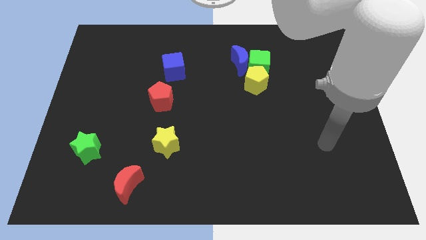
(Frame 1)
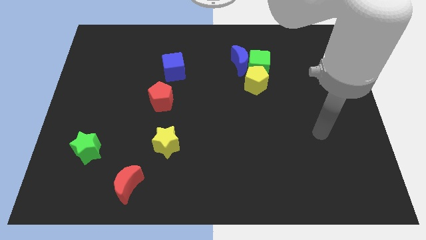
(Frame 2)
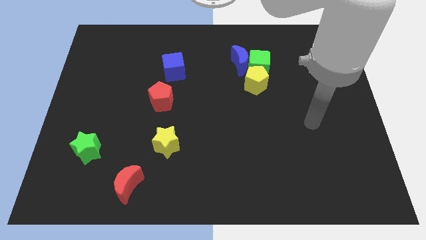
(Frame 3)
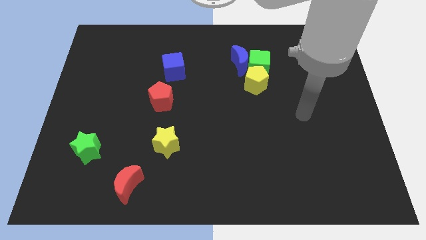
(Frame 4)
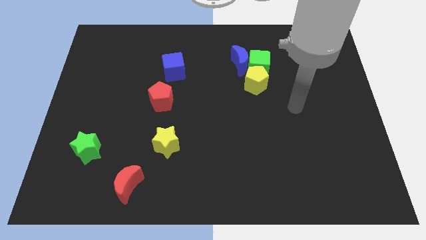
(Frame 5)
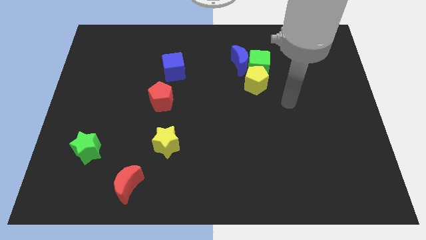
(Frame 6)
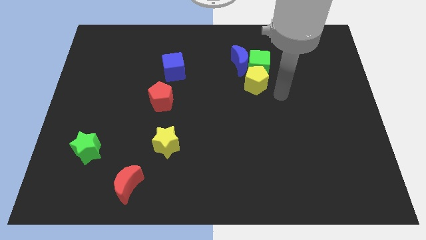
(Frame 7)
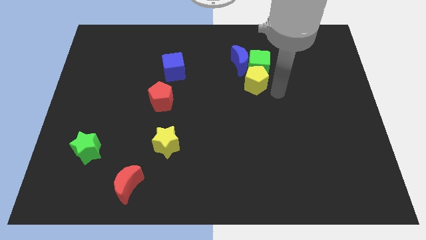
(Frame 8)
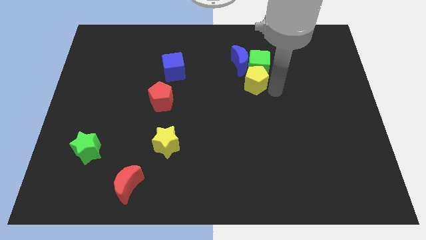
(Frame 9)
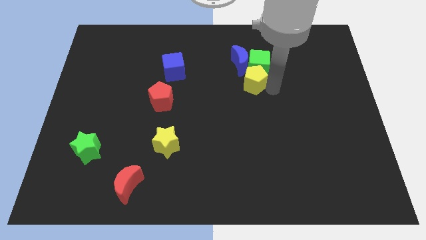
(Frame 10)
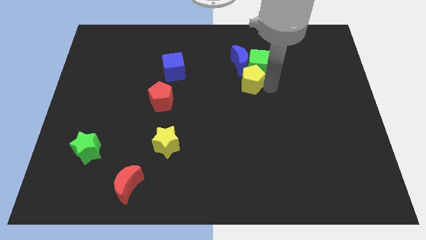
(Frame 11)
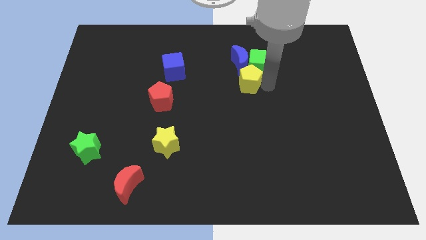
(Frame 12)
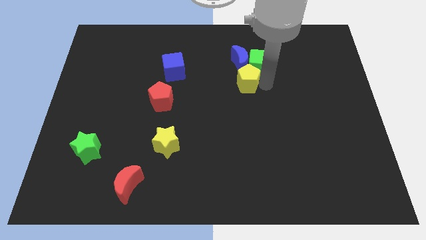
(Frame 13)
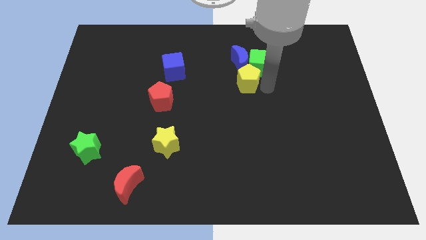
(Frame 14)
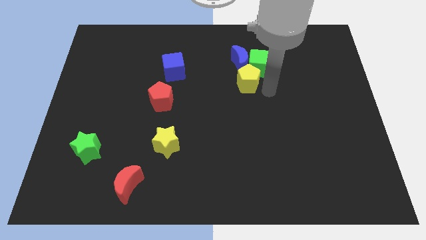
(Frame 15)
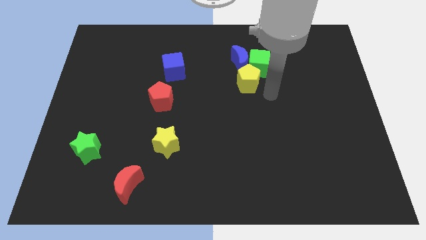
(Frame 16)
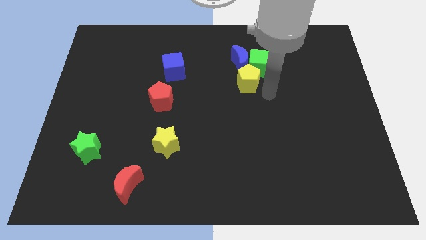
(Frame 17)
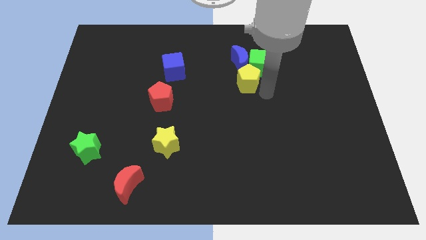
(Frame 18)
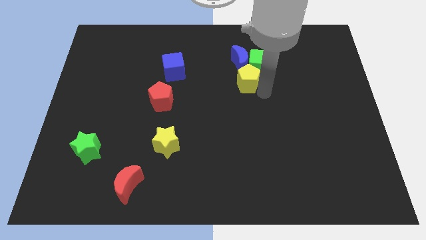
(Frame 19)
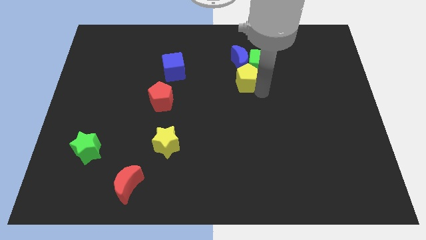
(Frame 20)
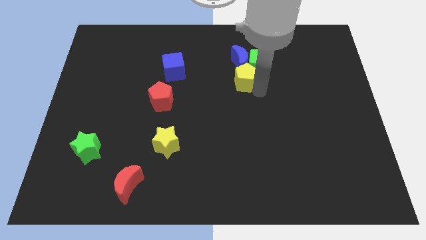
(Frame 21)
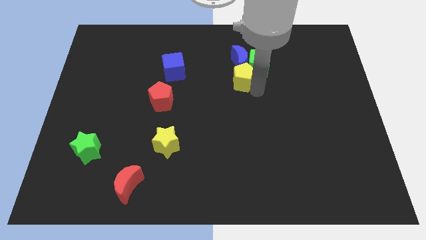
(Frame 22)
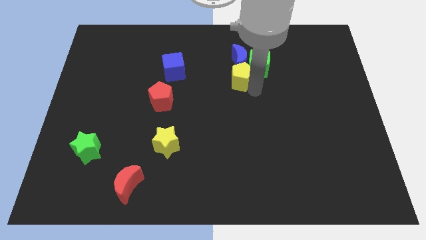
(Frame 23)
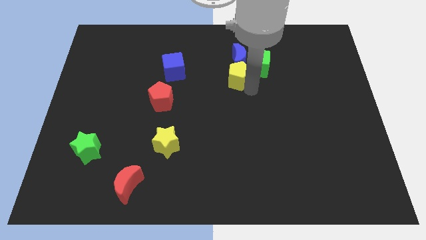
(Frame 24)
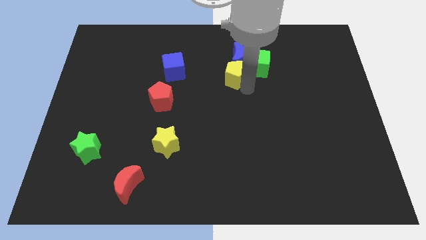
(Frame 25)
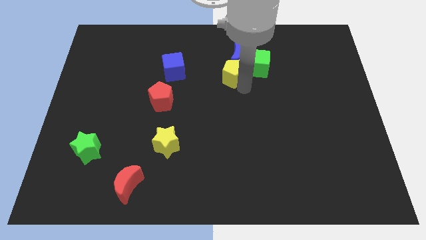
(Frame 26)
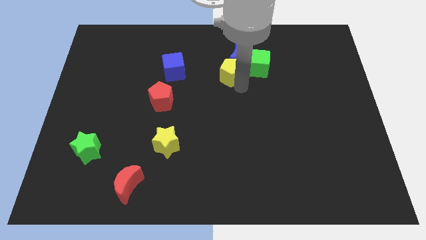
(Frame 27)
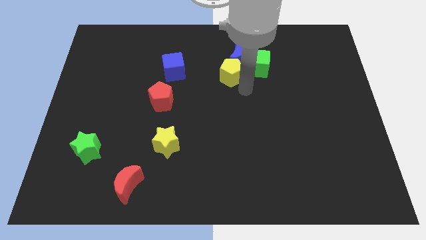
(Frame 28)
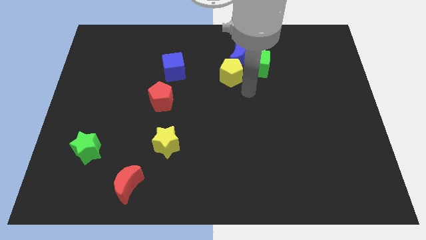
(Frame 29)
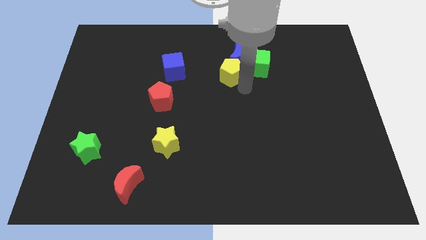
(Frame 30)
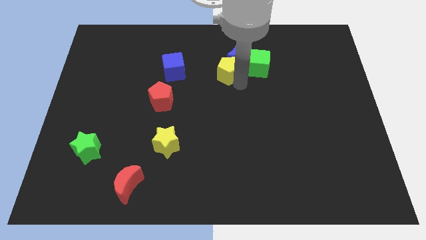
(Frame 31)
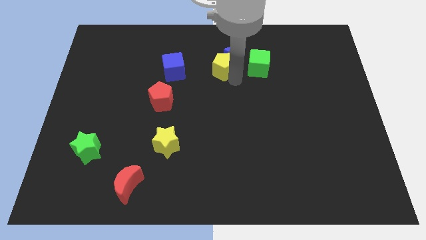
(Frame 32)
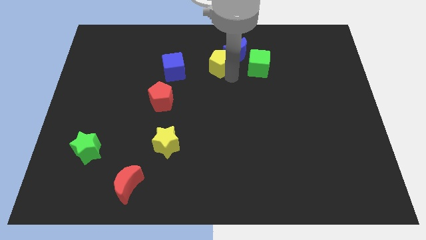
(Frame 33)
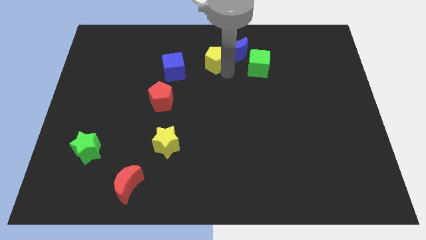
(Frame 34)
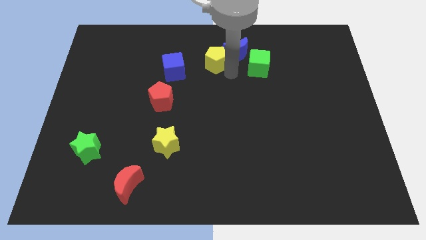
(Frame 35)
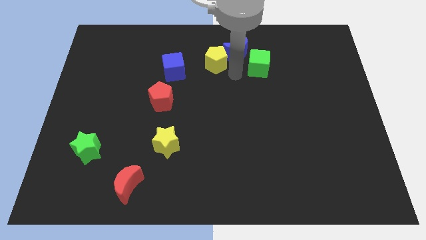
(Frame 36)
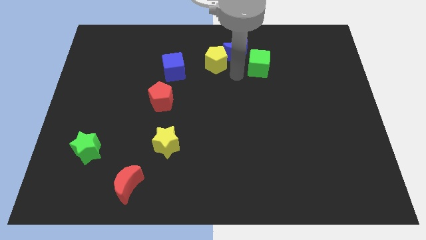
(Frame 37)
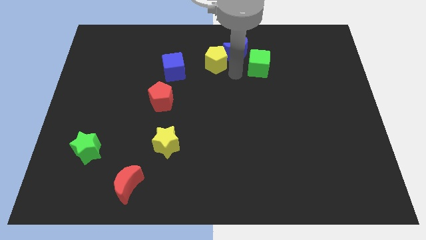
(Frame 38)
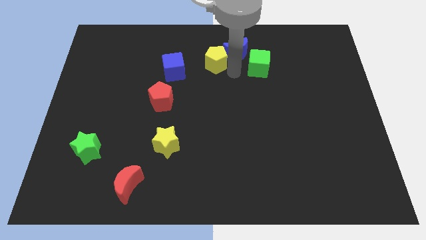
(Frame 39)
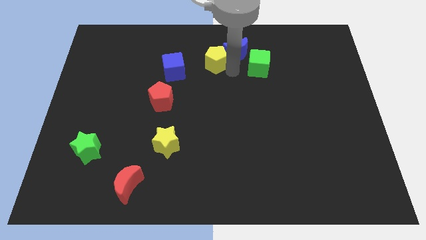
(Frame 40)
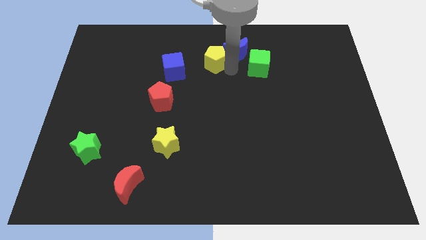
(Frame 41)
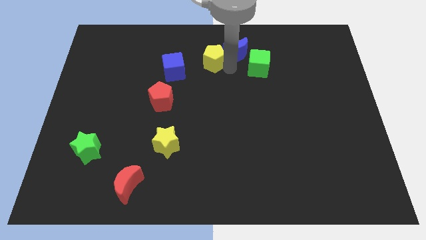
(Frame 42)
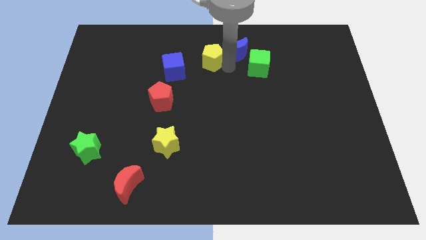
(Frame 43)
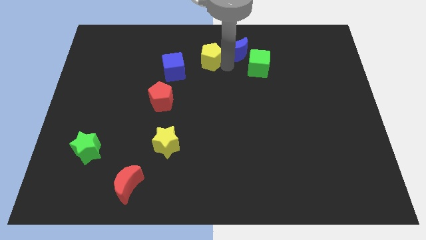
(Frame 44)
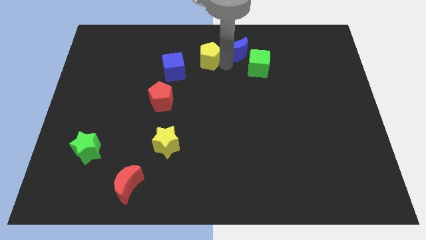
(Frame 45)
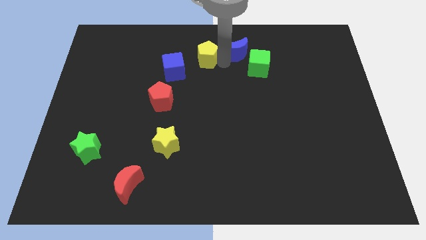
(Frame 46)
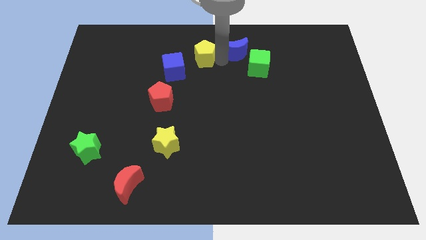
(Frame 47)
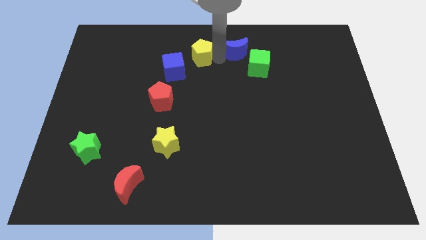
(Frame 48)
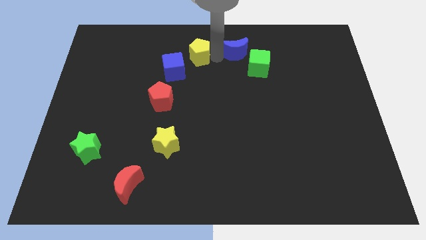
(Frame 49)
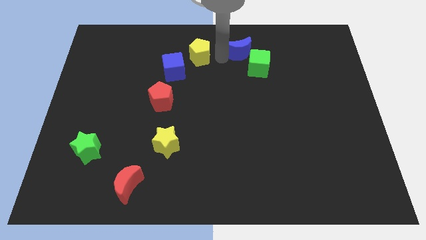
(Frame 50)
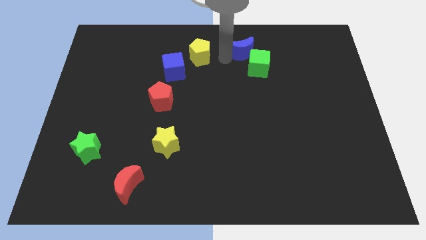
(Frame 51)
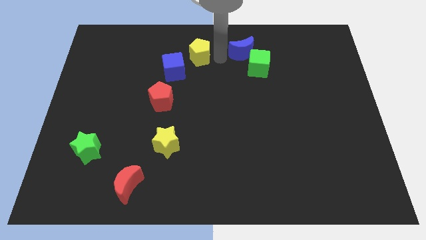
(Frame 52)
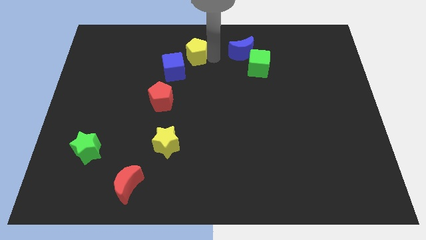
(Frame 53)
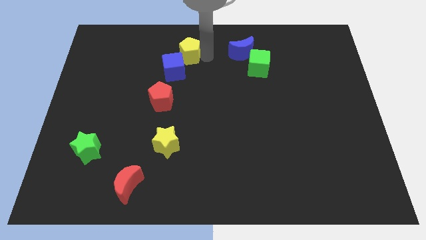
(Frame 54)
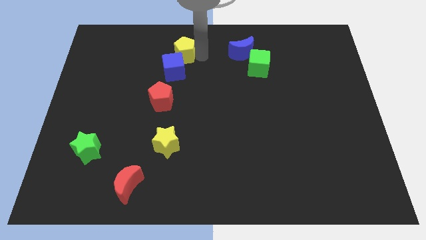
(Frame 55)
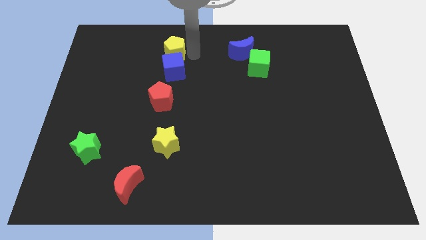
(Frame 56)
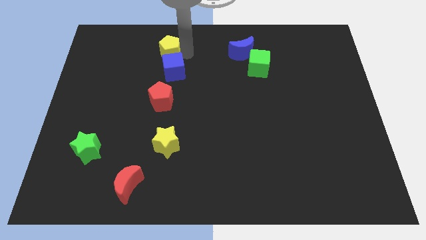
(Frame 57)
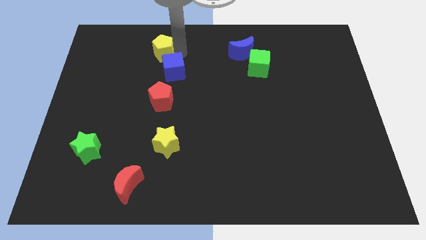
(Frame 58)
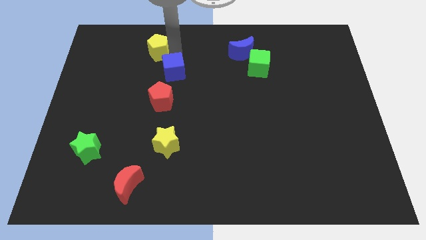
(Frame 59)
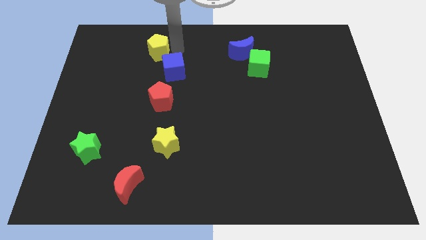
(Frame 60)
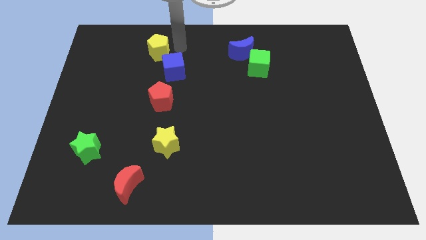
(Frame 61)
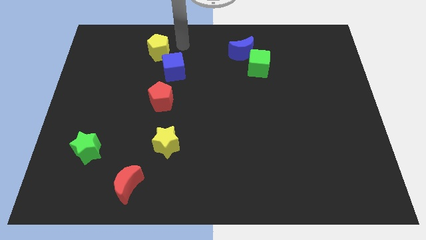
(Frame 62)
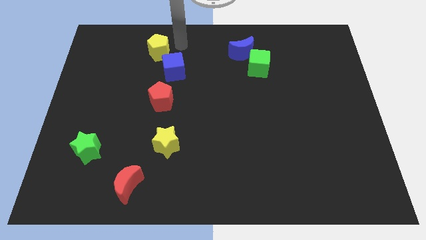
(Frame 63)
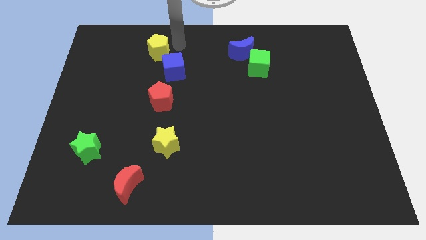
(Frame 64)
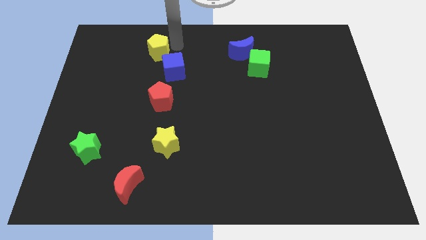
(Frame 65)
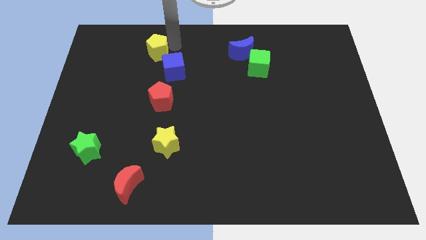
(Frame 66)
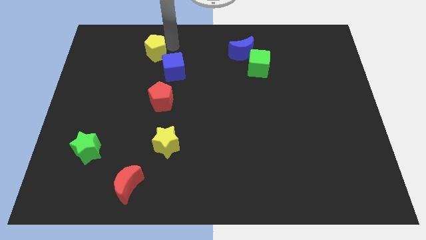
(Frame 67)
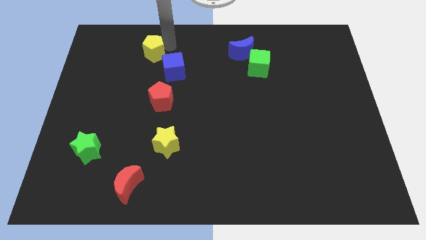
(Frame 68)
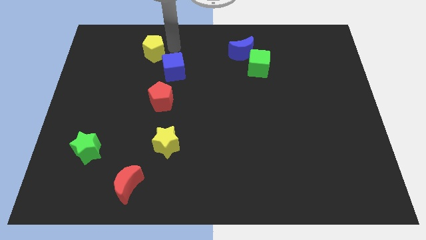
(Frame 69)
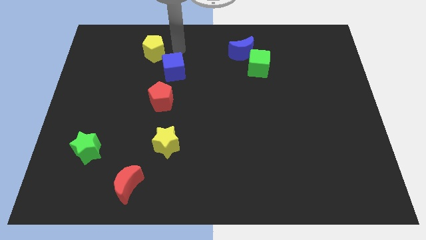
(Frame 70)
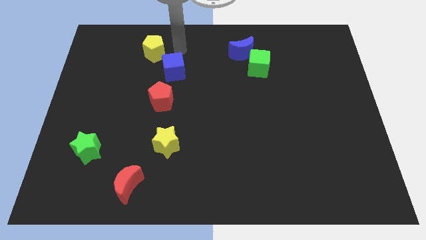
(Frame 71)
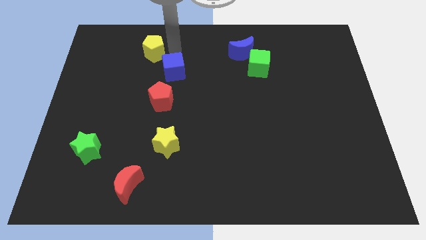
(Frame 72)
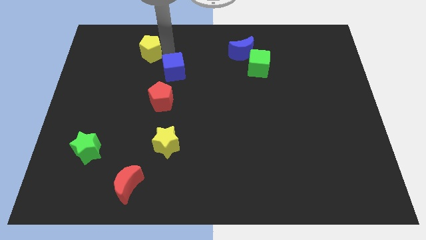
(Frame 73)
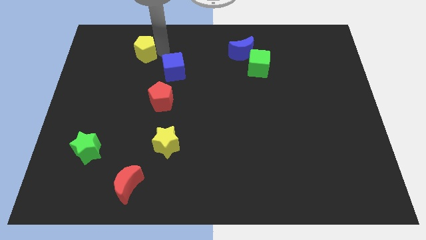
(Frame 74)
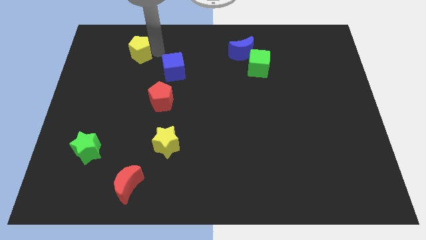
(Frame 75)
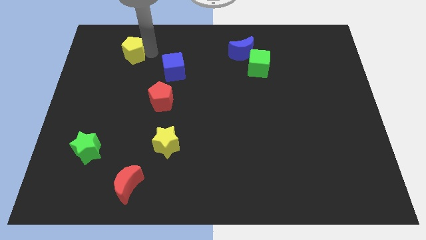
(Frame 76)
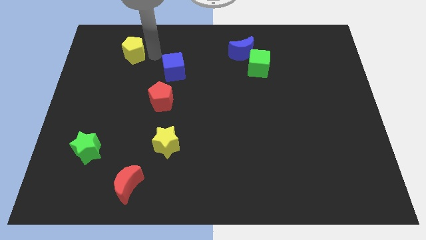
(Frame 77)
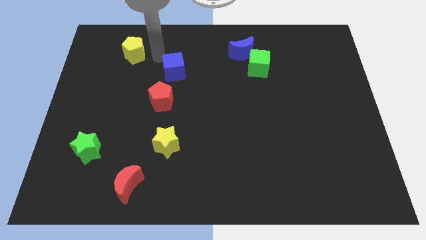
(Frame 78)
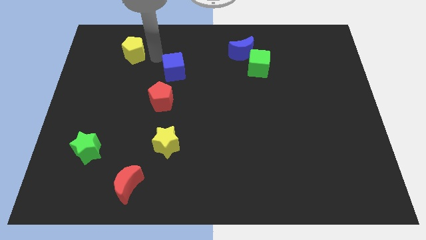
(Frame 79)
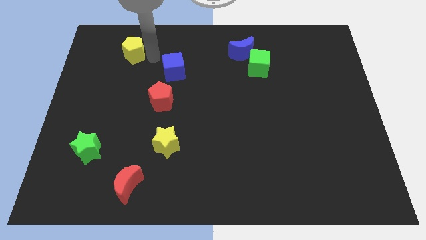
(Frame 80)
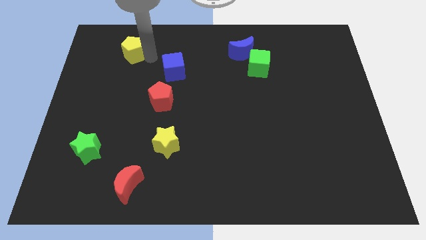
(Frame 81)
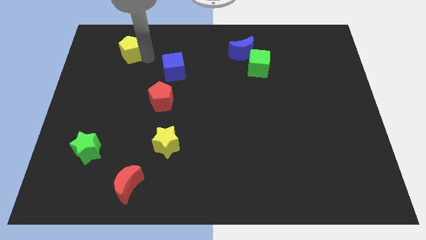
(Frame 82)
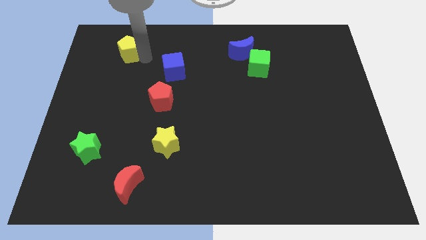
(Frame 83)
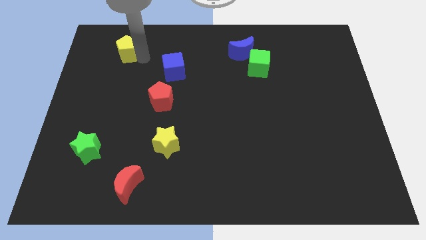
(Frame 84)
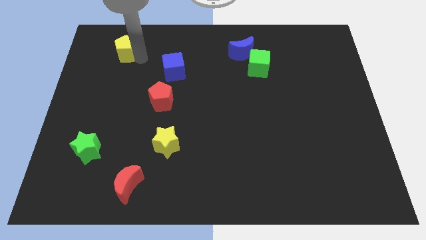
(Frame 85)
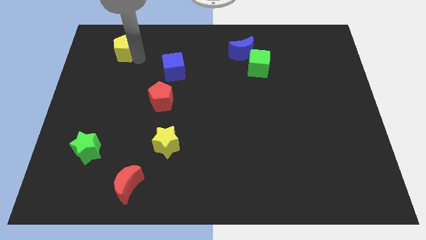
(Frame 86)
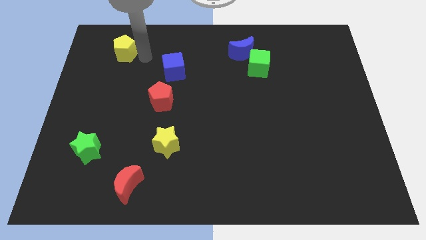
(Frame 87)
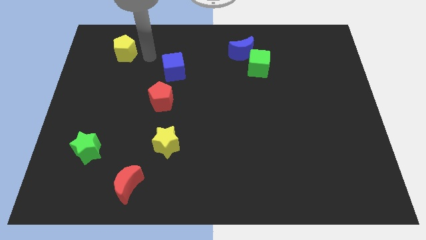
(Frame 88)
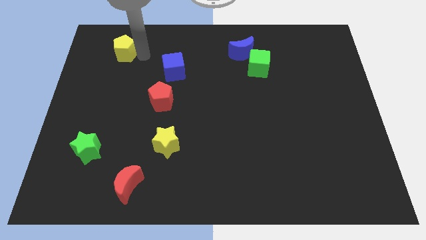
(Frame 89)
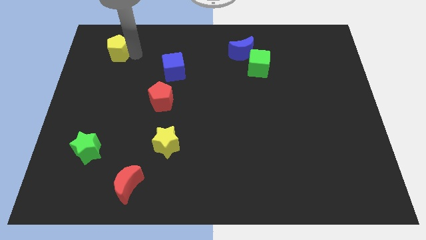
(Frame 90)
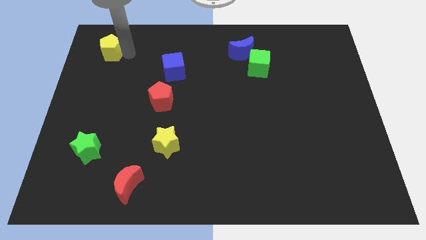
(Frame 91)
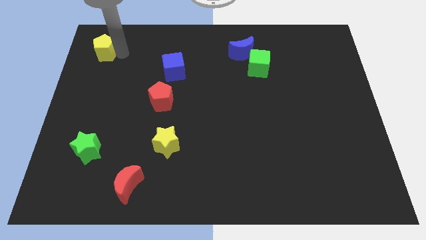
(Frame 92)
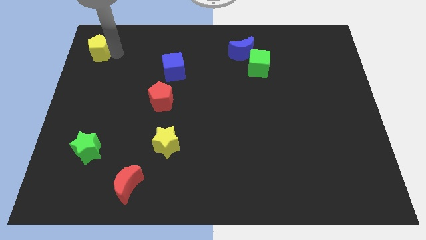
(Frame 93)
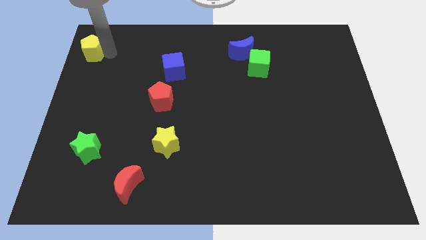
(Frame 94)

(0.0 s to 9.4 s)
move the yellow pentagon to the top left of the board
